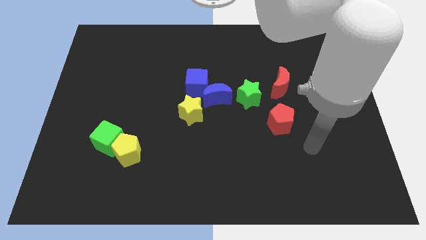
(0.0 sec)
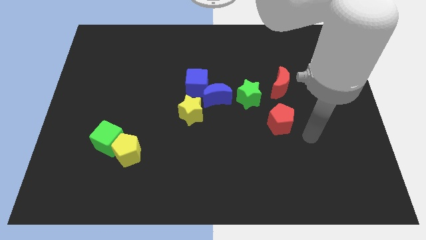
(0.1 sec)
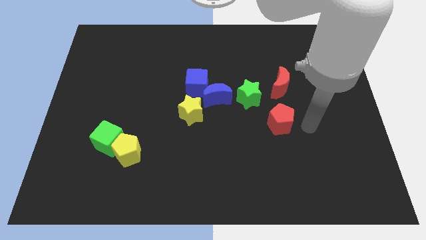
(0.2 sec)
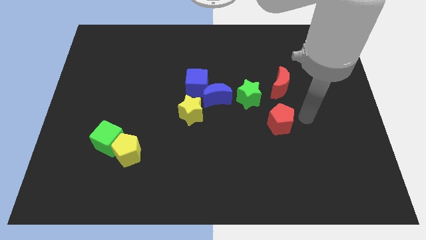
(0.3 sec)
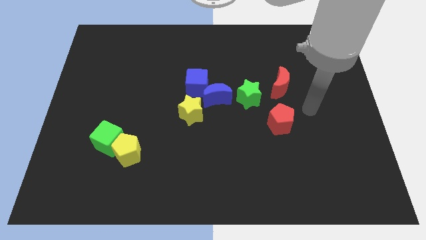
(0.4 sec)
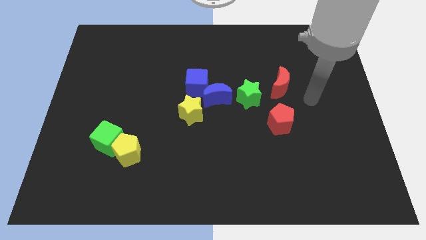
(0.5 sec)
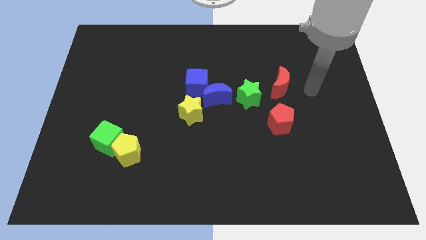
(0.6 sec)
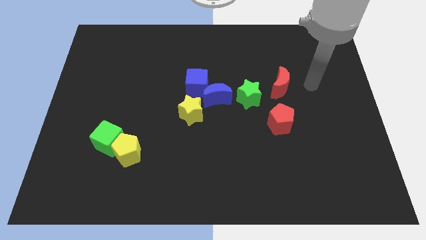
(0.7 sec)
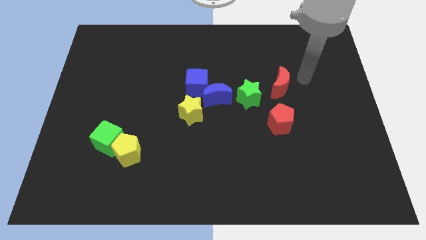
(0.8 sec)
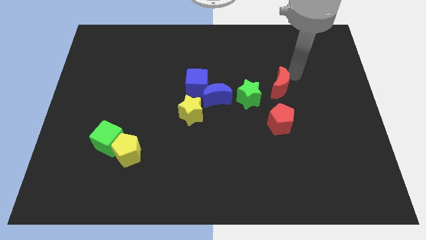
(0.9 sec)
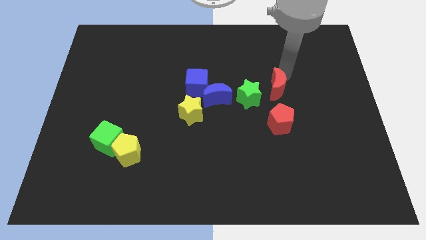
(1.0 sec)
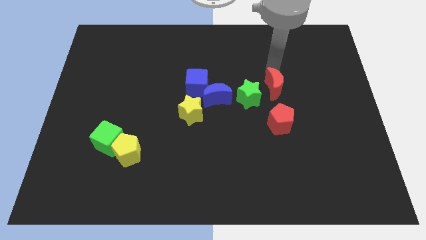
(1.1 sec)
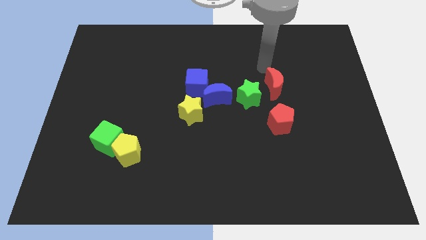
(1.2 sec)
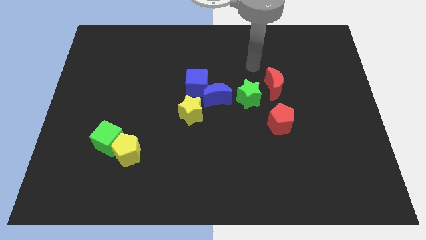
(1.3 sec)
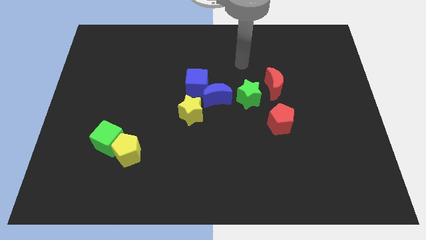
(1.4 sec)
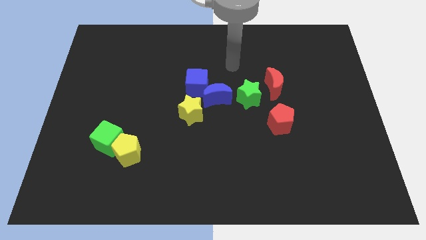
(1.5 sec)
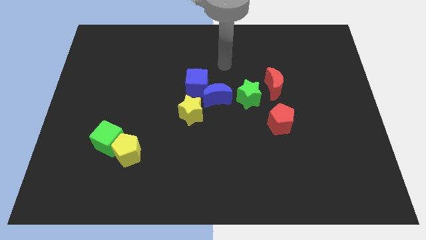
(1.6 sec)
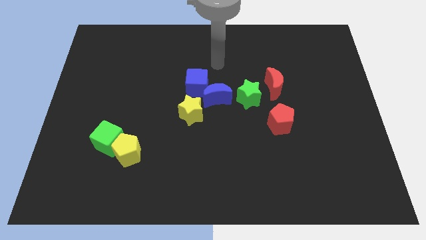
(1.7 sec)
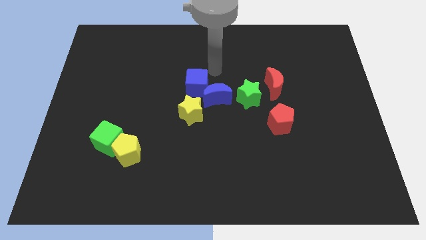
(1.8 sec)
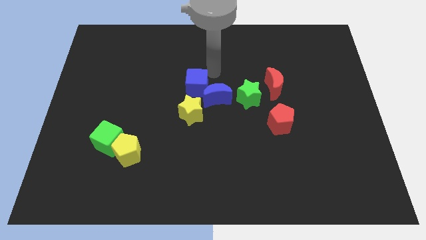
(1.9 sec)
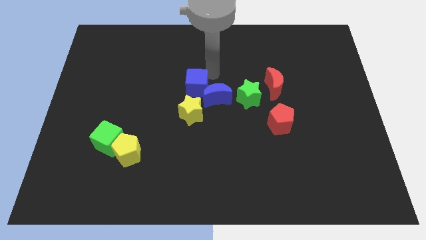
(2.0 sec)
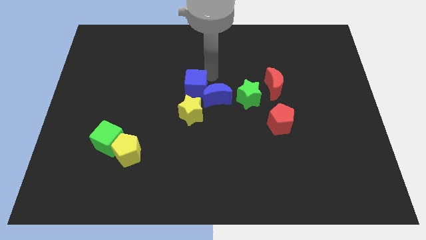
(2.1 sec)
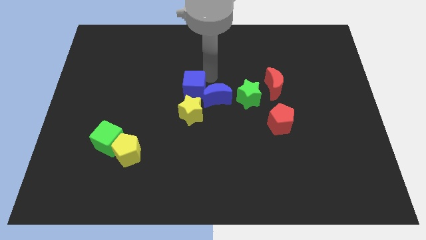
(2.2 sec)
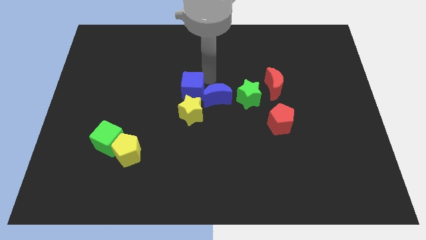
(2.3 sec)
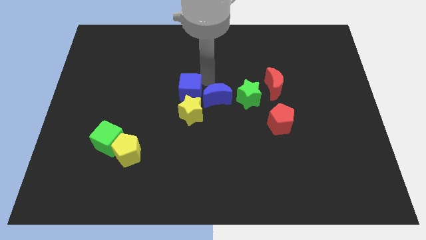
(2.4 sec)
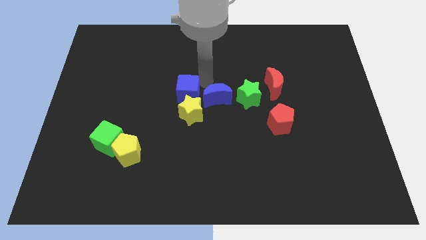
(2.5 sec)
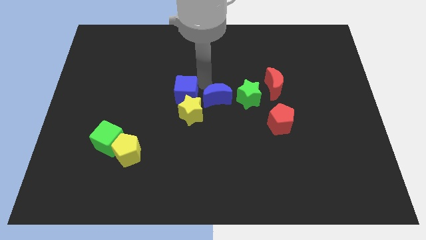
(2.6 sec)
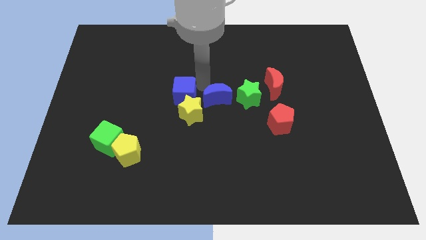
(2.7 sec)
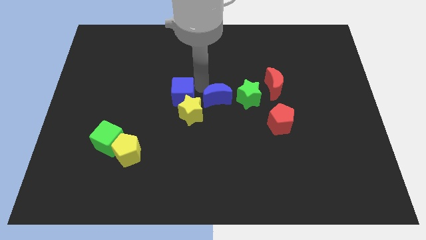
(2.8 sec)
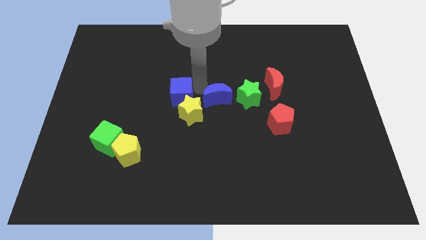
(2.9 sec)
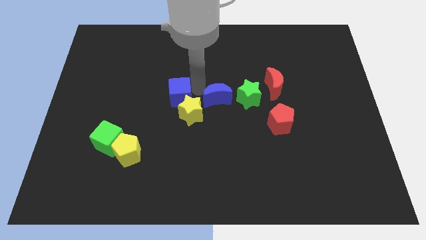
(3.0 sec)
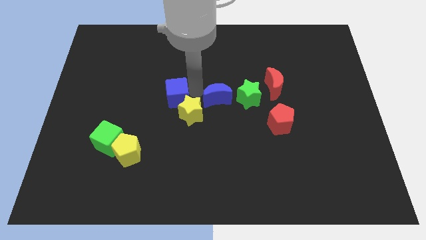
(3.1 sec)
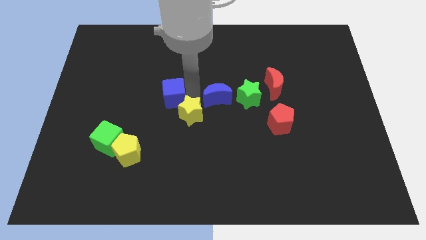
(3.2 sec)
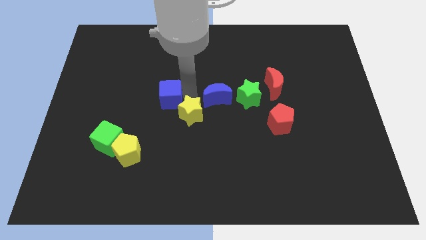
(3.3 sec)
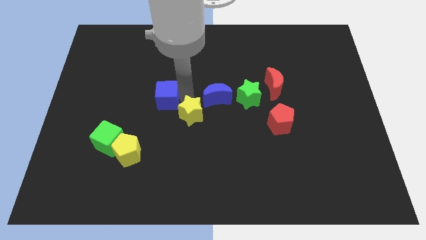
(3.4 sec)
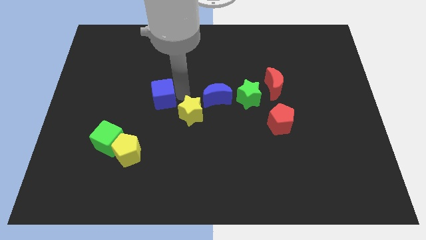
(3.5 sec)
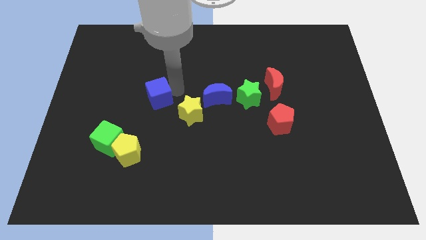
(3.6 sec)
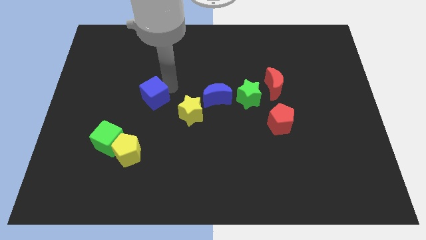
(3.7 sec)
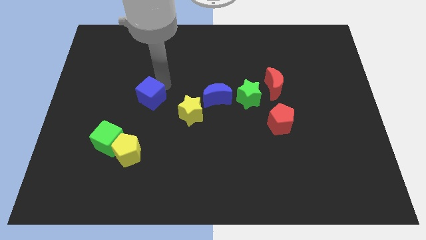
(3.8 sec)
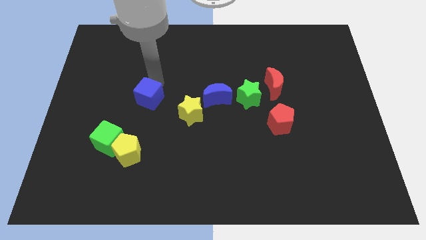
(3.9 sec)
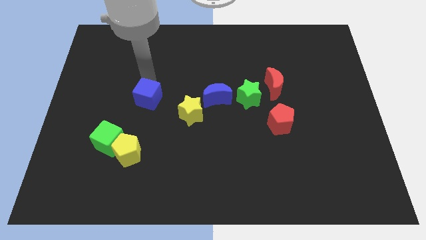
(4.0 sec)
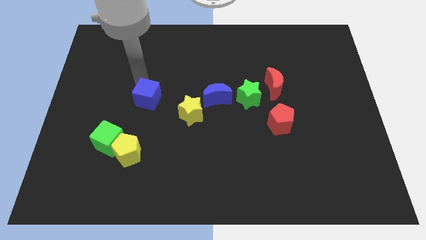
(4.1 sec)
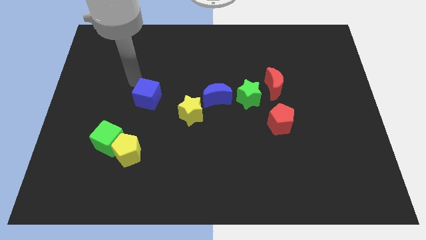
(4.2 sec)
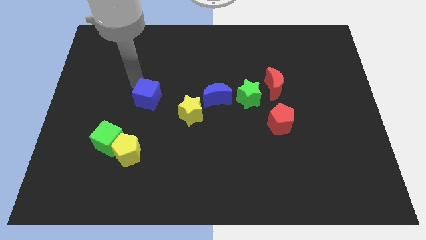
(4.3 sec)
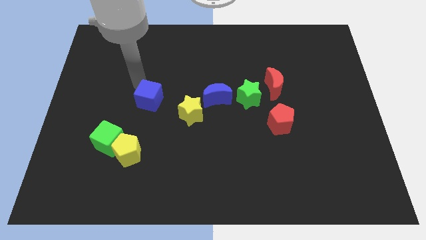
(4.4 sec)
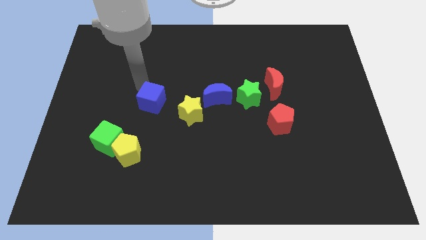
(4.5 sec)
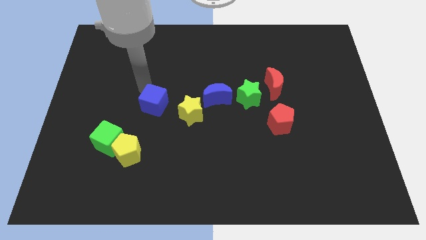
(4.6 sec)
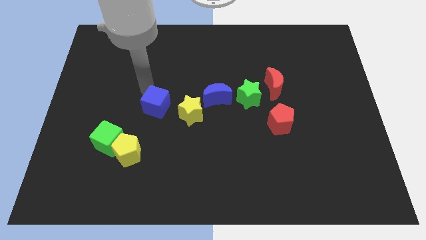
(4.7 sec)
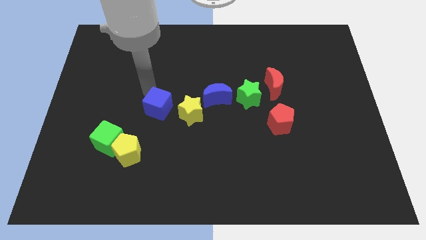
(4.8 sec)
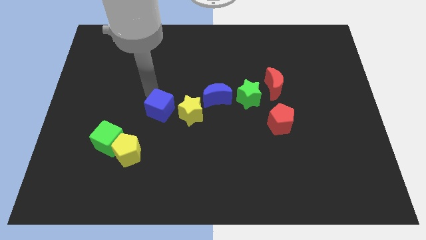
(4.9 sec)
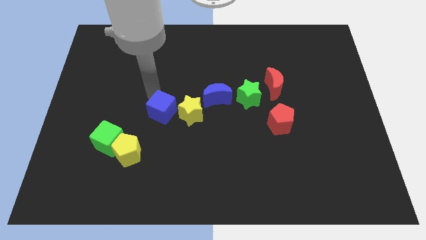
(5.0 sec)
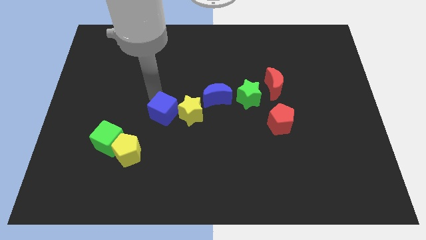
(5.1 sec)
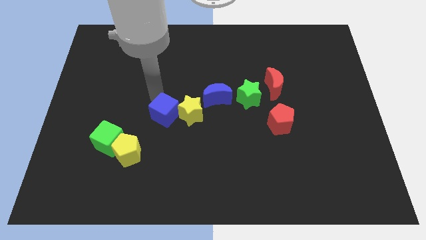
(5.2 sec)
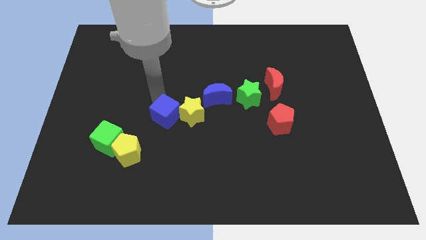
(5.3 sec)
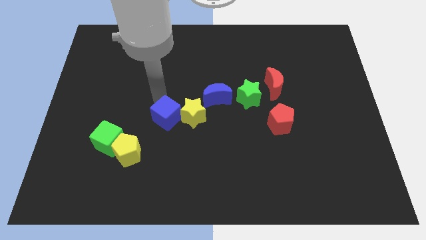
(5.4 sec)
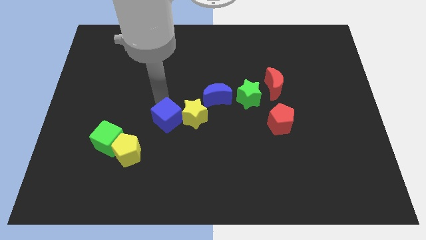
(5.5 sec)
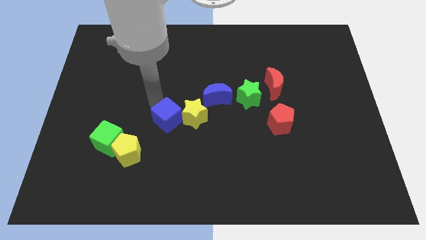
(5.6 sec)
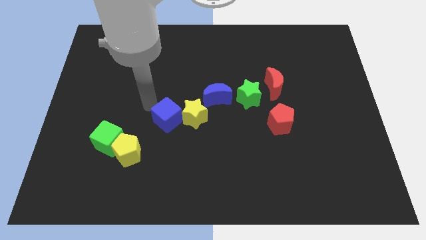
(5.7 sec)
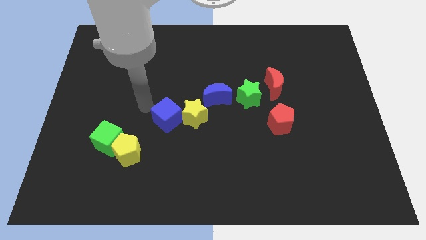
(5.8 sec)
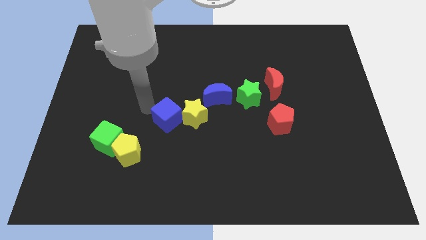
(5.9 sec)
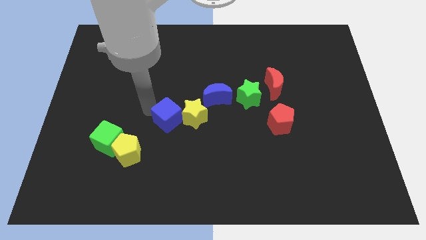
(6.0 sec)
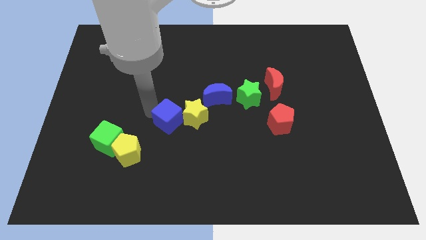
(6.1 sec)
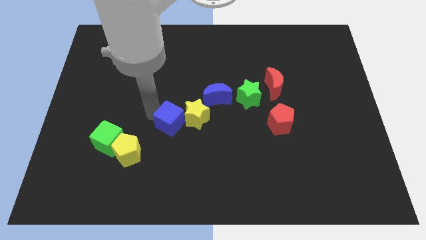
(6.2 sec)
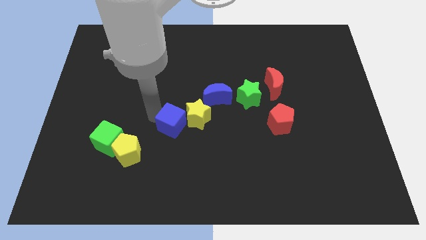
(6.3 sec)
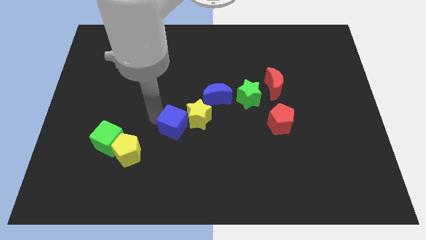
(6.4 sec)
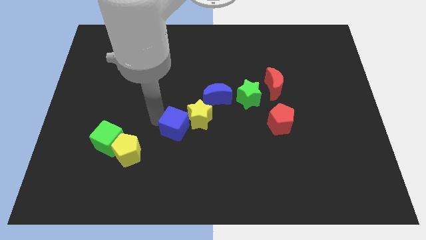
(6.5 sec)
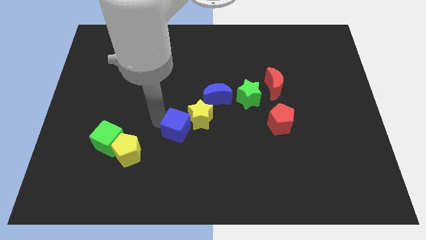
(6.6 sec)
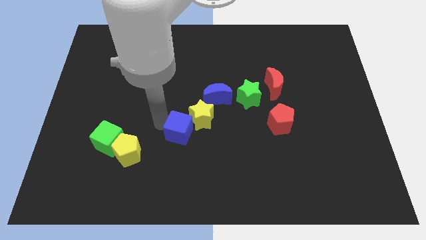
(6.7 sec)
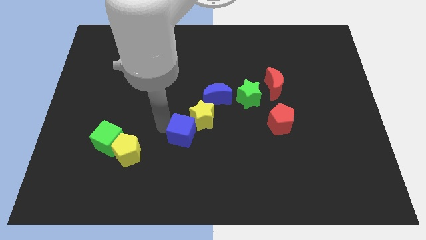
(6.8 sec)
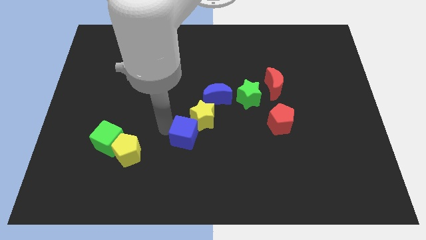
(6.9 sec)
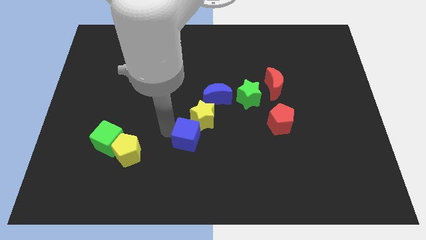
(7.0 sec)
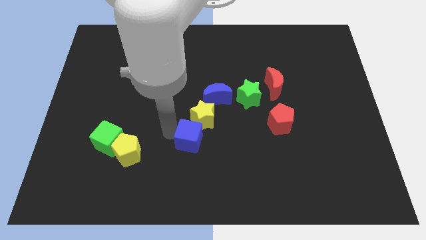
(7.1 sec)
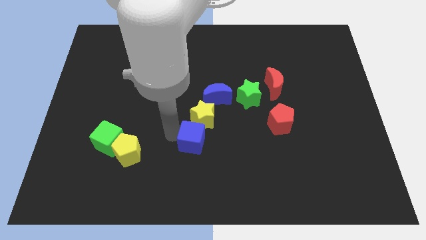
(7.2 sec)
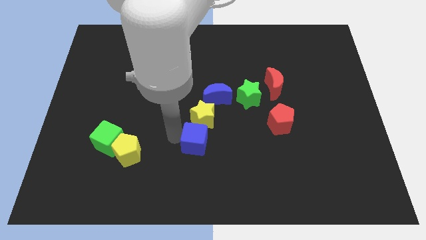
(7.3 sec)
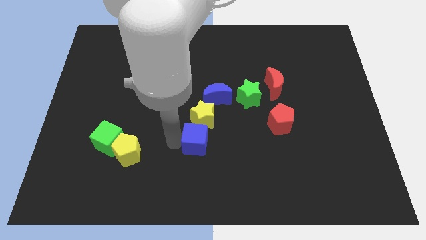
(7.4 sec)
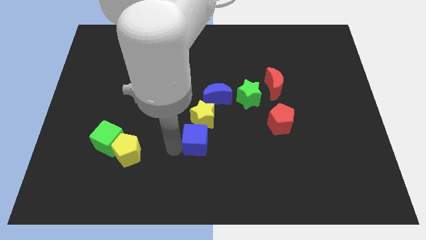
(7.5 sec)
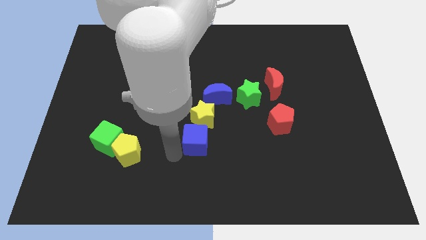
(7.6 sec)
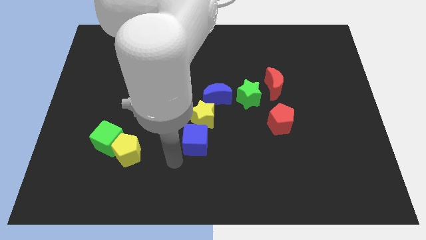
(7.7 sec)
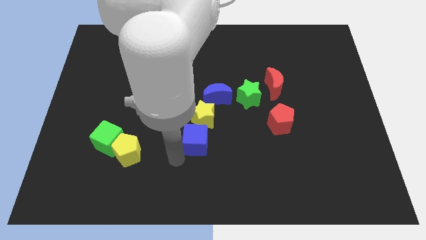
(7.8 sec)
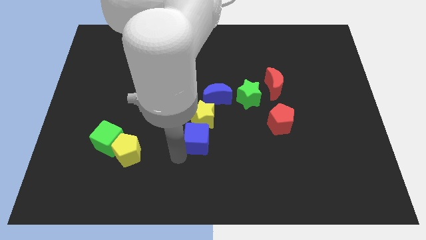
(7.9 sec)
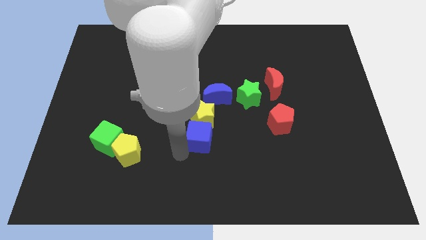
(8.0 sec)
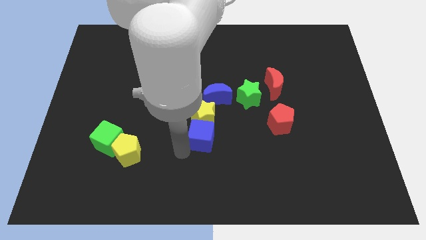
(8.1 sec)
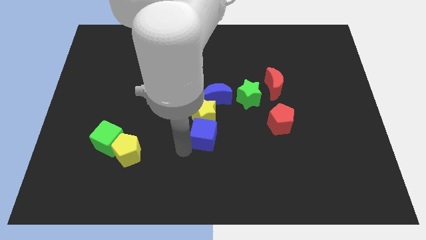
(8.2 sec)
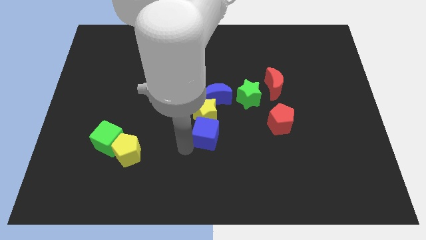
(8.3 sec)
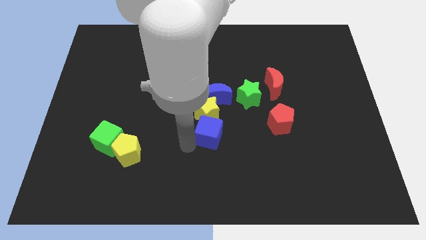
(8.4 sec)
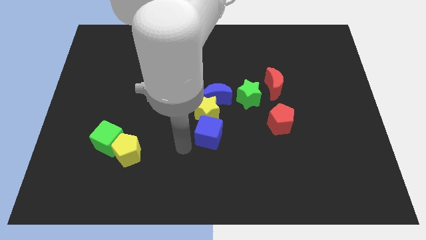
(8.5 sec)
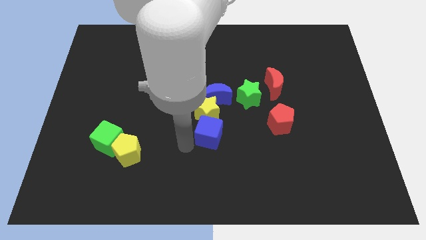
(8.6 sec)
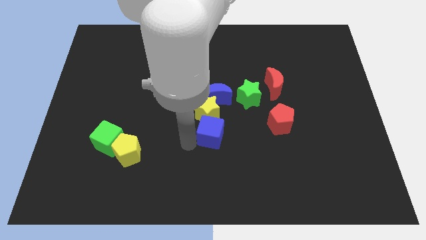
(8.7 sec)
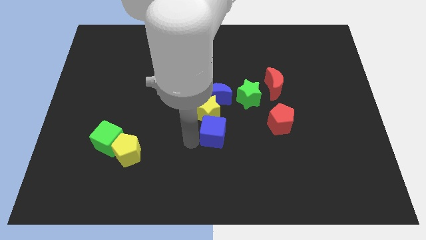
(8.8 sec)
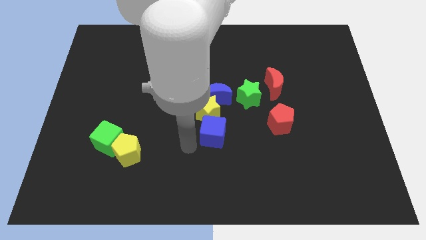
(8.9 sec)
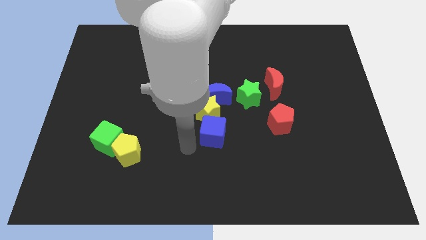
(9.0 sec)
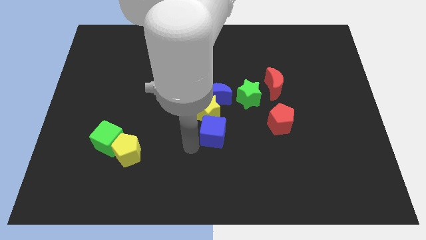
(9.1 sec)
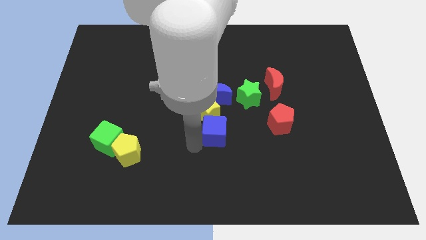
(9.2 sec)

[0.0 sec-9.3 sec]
push the blue cube just left of the red pentagon
